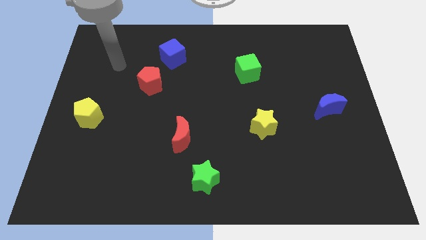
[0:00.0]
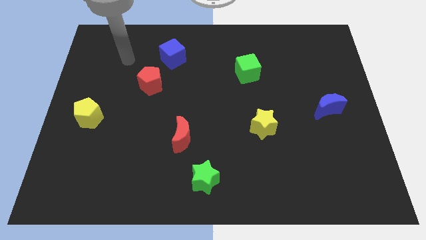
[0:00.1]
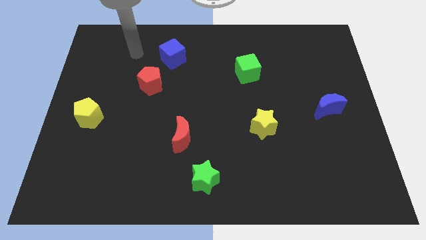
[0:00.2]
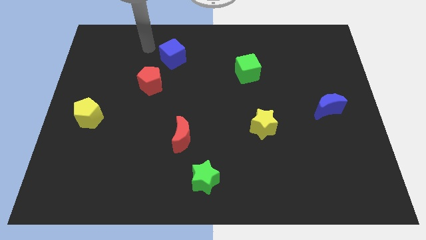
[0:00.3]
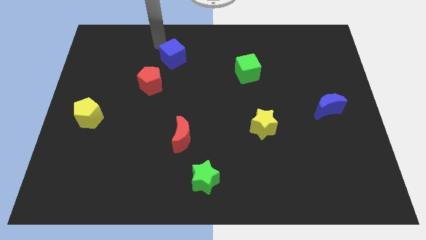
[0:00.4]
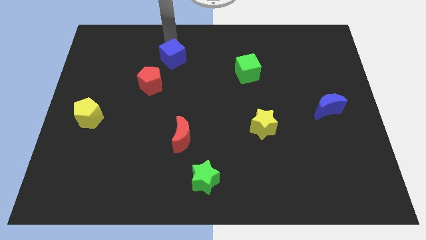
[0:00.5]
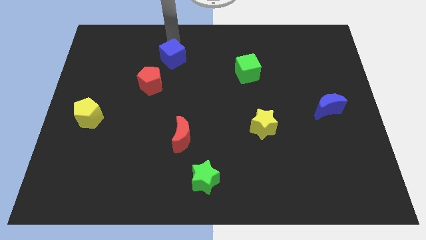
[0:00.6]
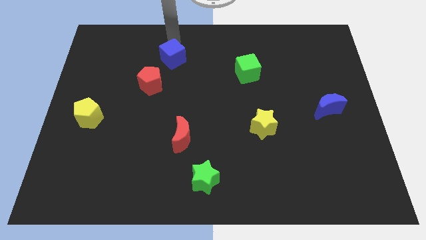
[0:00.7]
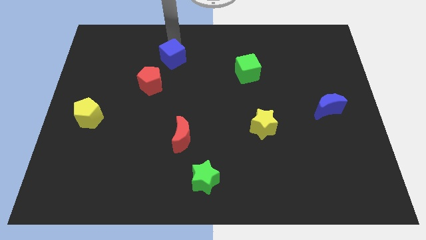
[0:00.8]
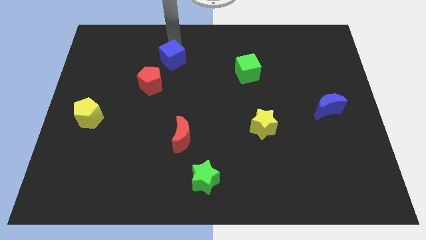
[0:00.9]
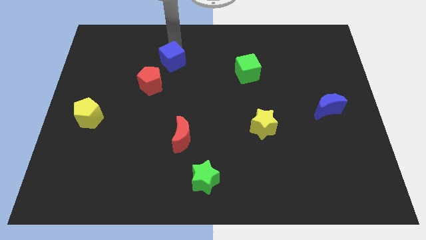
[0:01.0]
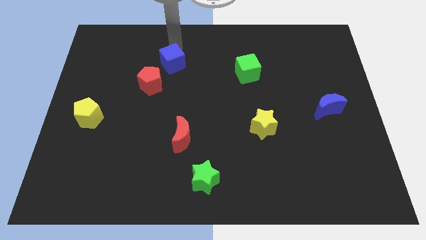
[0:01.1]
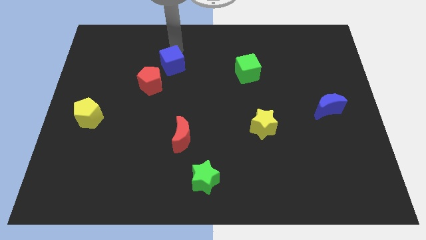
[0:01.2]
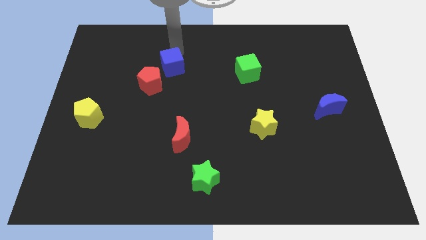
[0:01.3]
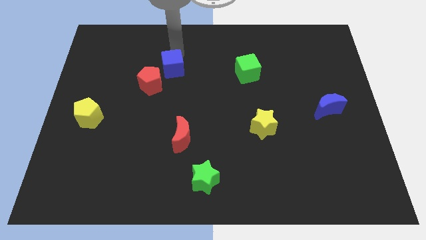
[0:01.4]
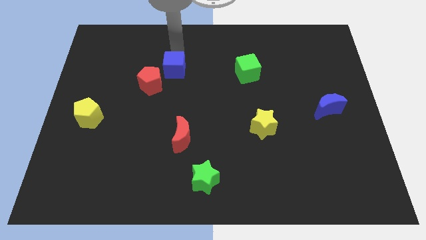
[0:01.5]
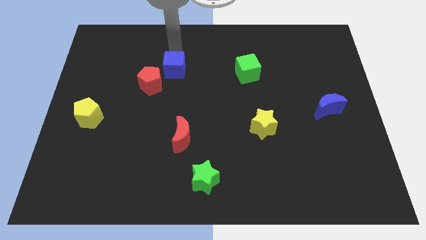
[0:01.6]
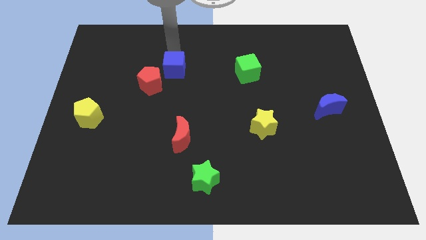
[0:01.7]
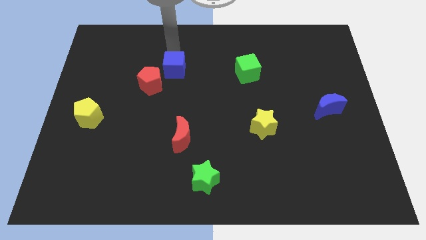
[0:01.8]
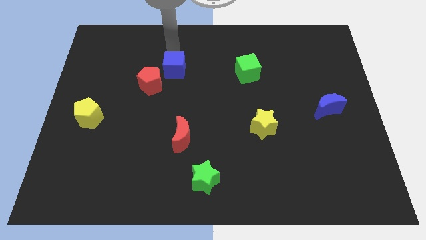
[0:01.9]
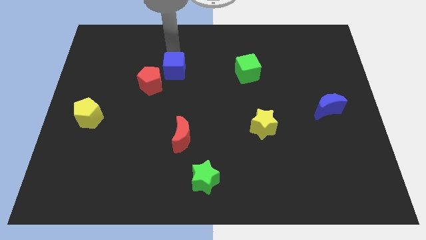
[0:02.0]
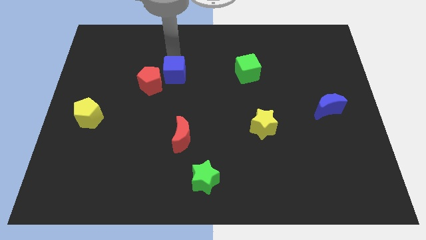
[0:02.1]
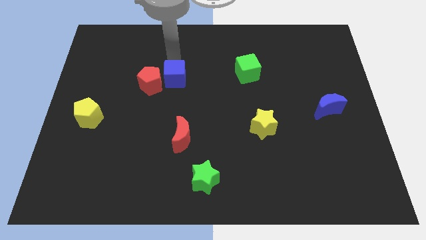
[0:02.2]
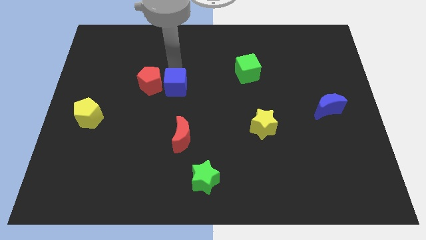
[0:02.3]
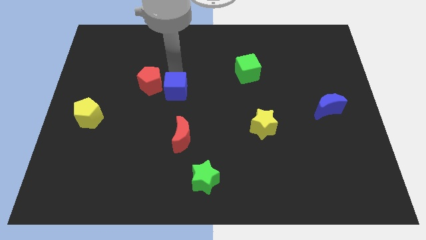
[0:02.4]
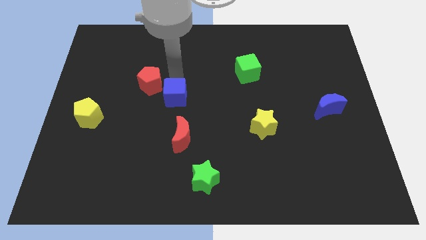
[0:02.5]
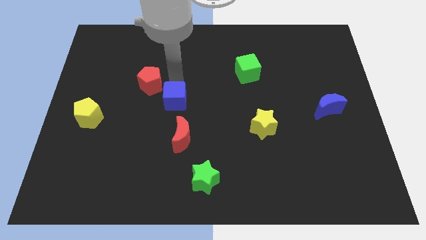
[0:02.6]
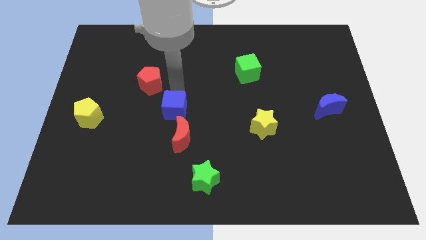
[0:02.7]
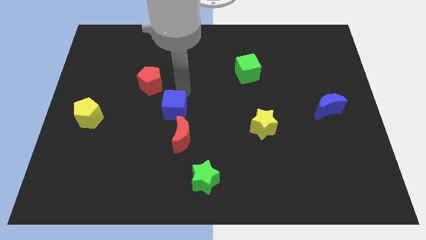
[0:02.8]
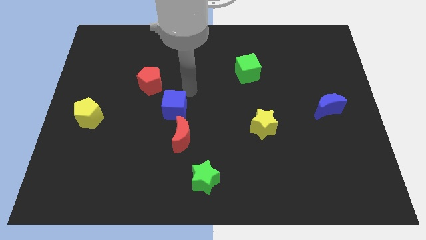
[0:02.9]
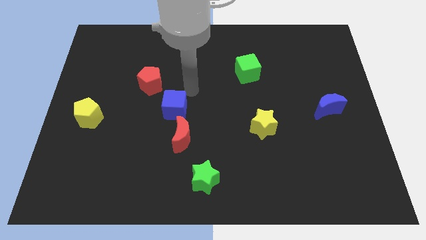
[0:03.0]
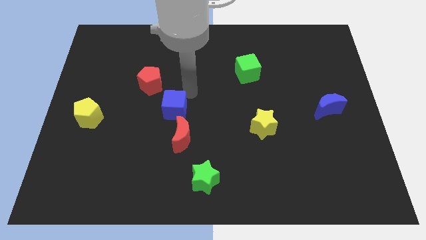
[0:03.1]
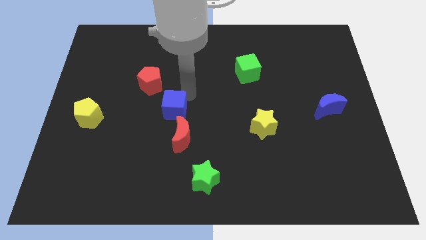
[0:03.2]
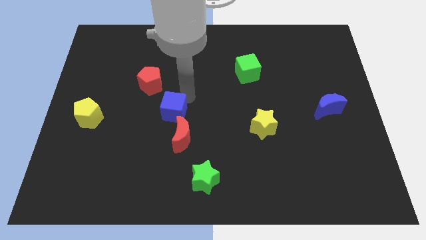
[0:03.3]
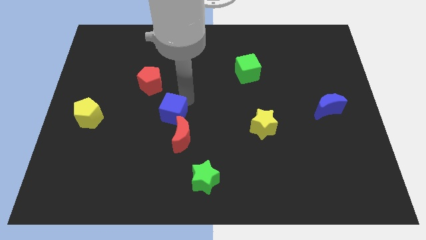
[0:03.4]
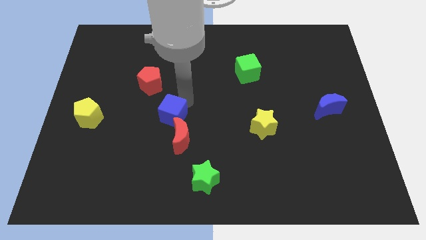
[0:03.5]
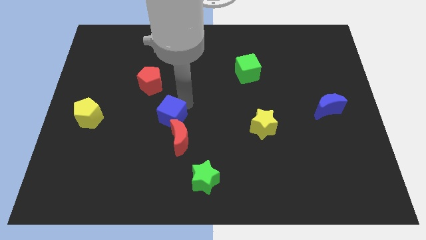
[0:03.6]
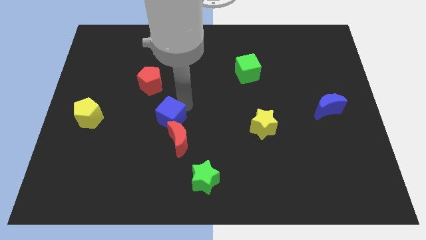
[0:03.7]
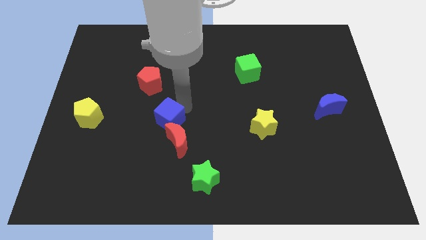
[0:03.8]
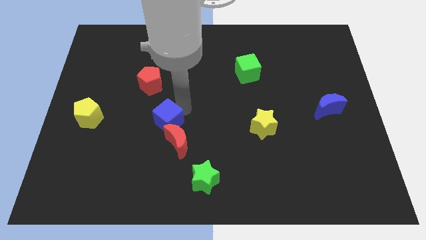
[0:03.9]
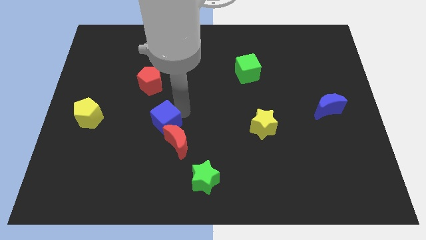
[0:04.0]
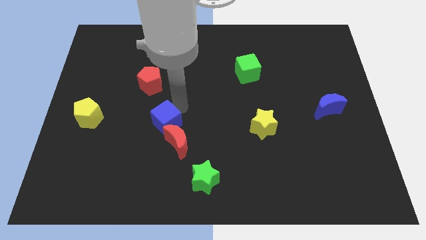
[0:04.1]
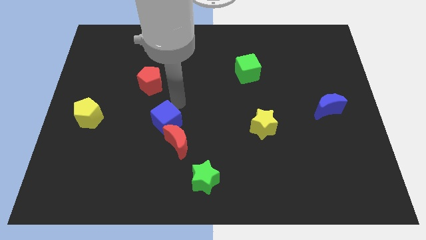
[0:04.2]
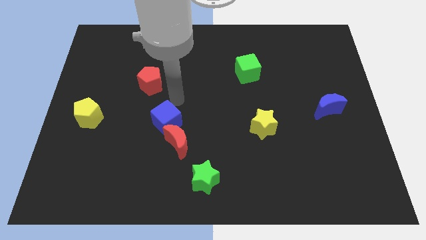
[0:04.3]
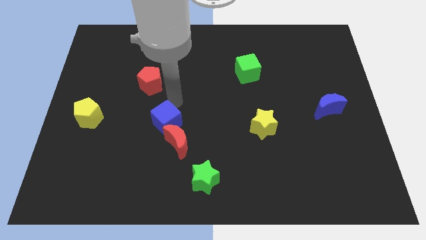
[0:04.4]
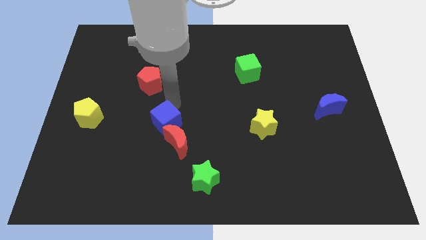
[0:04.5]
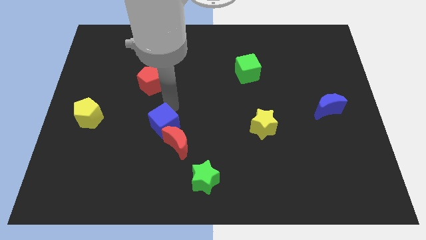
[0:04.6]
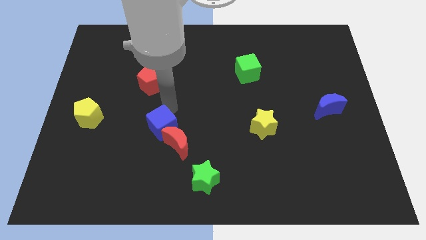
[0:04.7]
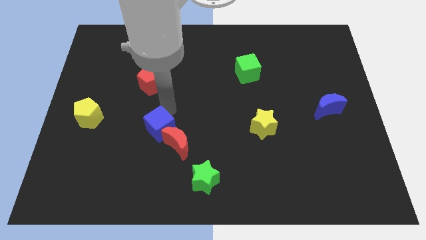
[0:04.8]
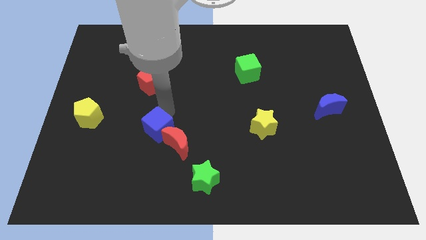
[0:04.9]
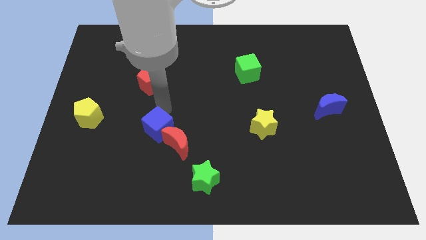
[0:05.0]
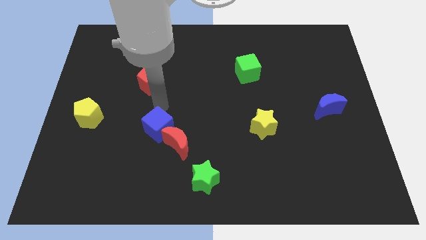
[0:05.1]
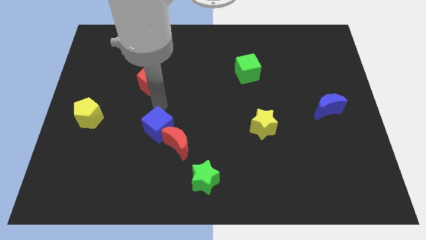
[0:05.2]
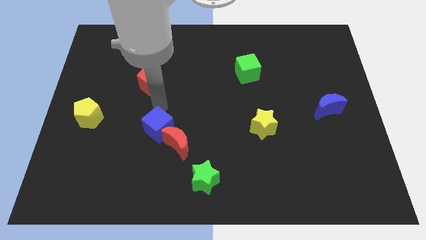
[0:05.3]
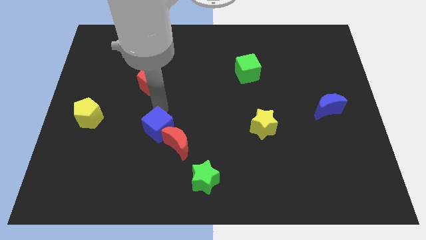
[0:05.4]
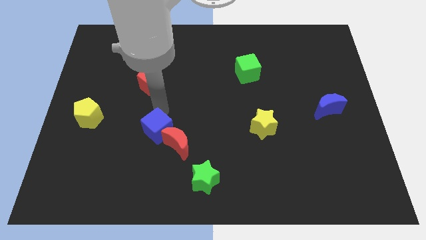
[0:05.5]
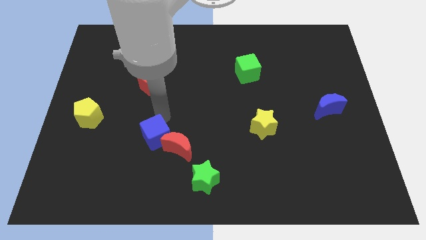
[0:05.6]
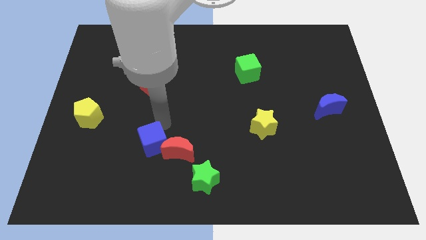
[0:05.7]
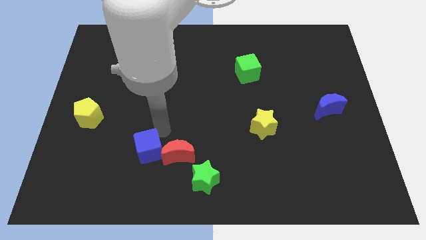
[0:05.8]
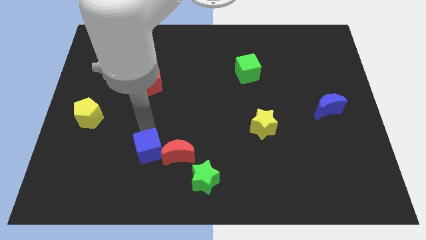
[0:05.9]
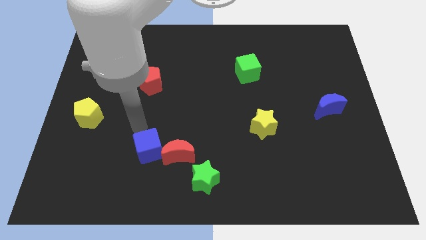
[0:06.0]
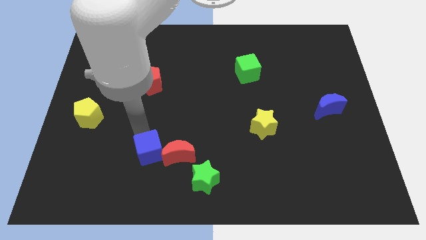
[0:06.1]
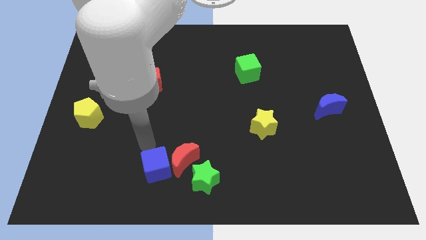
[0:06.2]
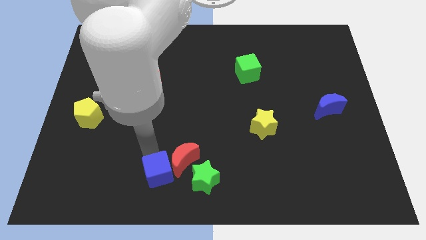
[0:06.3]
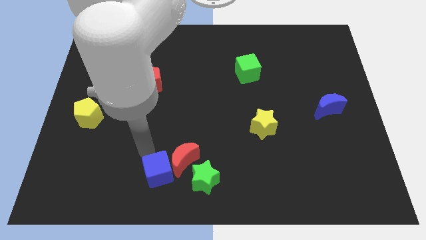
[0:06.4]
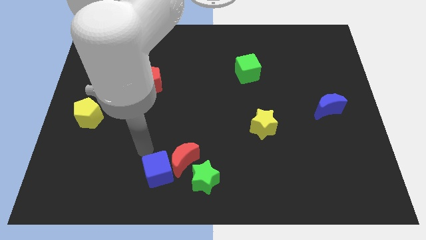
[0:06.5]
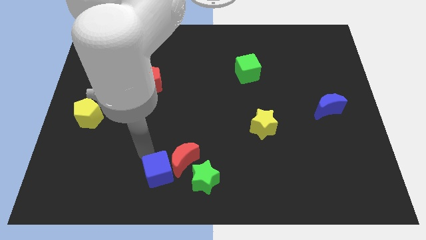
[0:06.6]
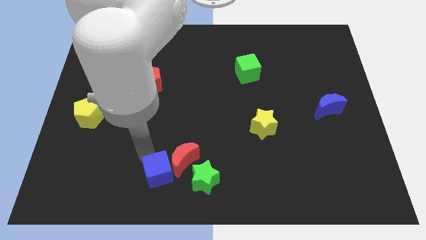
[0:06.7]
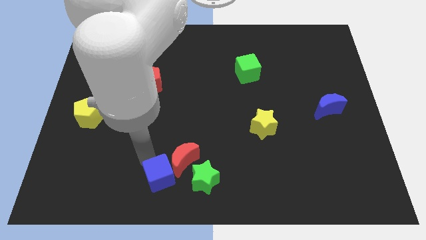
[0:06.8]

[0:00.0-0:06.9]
push the blue cube to the bottom side of the red moon

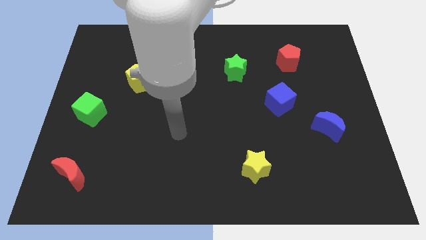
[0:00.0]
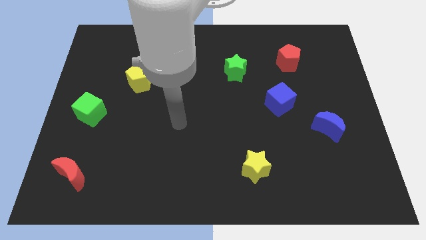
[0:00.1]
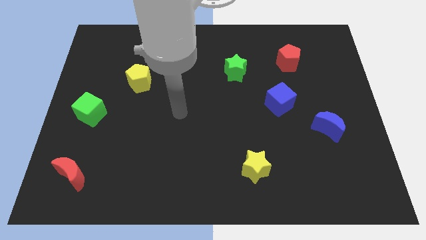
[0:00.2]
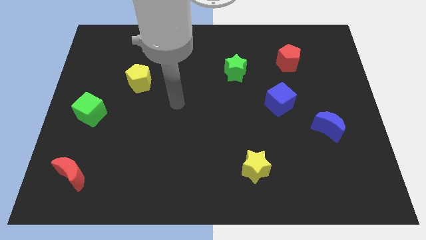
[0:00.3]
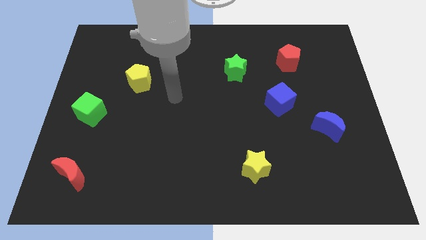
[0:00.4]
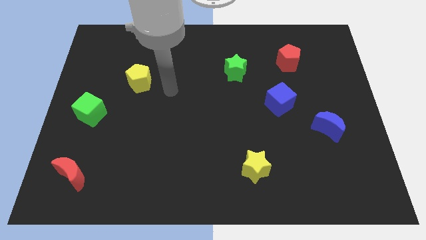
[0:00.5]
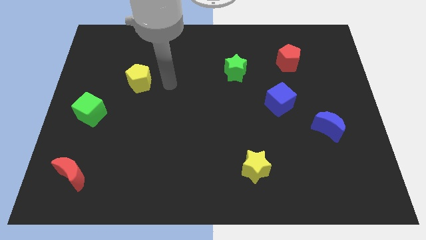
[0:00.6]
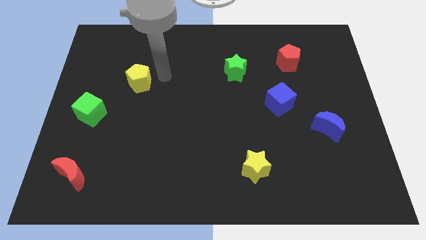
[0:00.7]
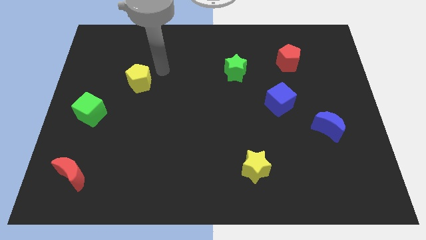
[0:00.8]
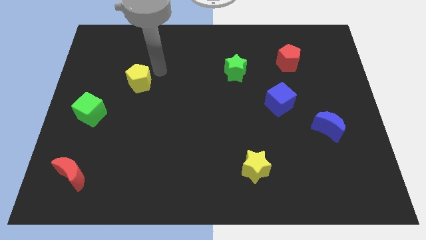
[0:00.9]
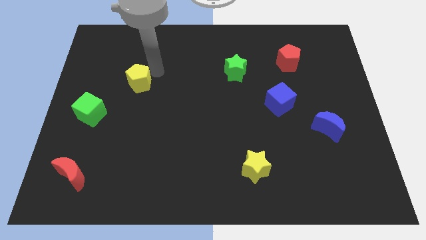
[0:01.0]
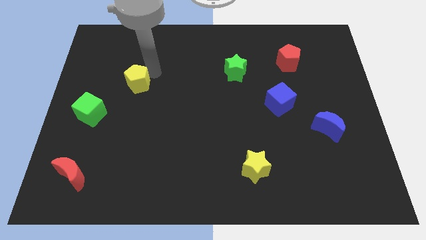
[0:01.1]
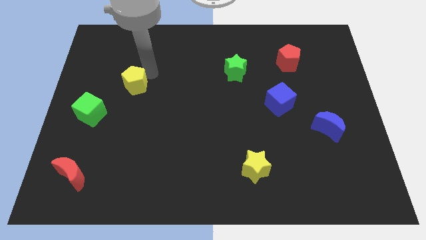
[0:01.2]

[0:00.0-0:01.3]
put the yellow pentagon diagonally up and to the right of the green cube
